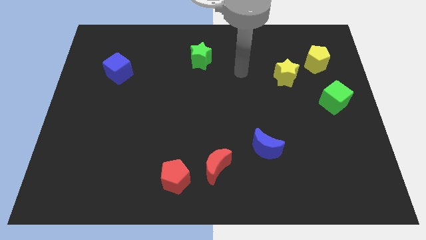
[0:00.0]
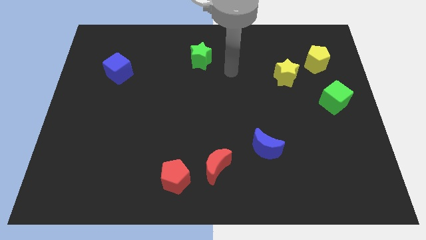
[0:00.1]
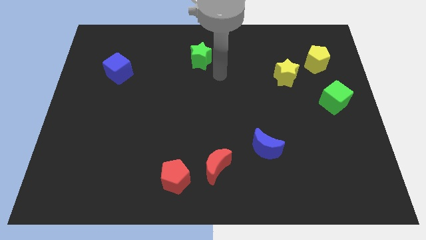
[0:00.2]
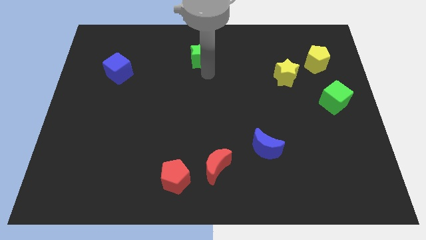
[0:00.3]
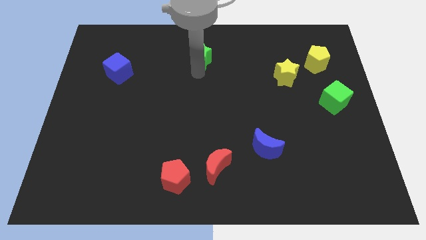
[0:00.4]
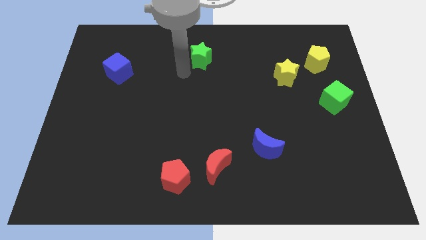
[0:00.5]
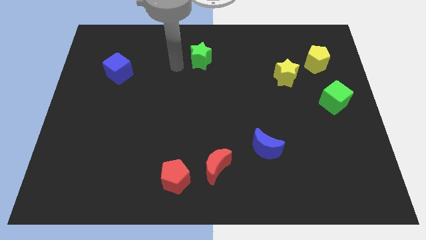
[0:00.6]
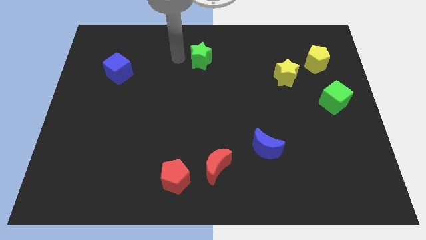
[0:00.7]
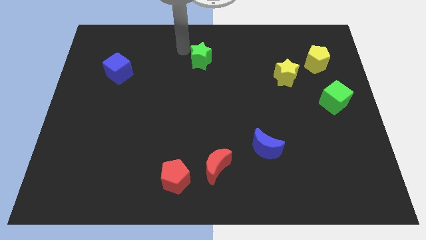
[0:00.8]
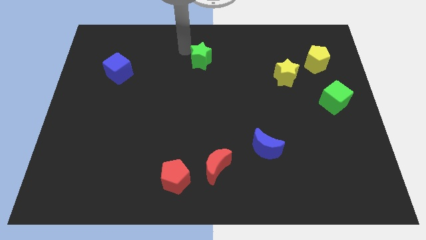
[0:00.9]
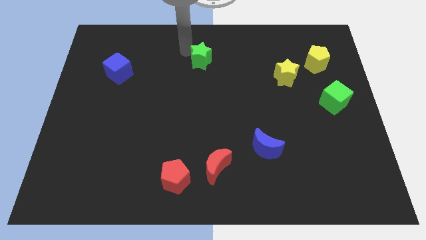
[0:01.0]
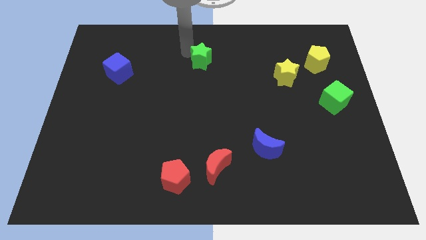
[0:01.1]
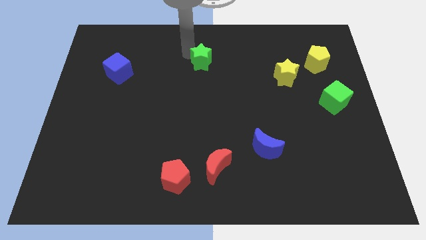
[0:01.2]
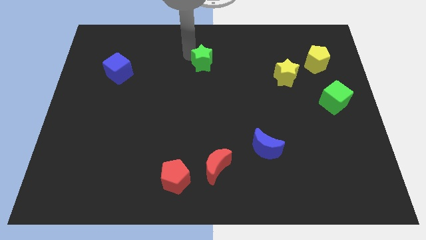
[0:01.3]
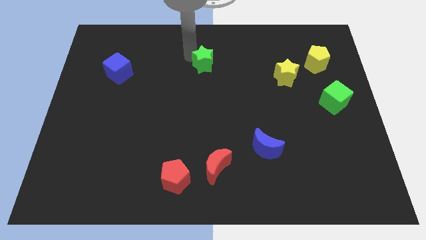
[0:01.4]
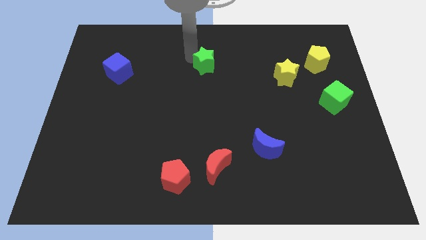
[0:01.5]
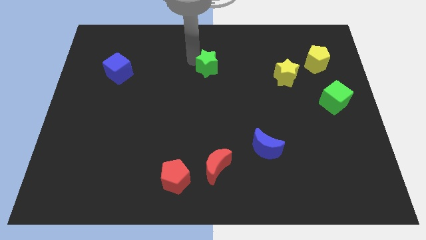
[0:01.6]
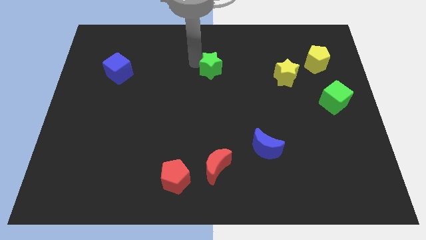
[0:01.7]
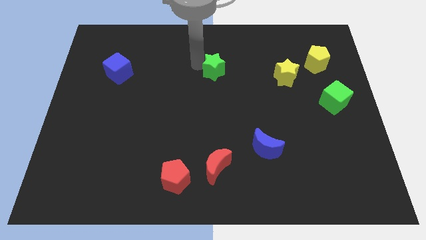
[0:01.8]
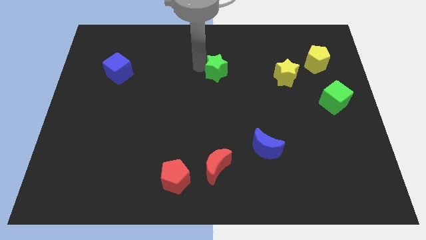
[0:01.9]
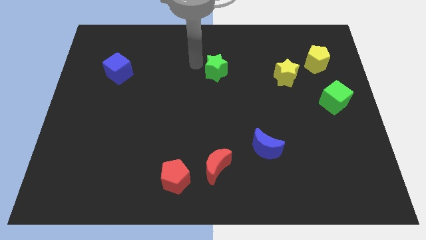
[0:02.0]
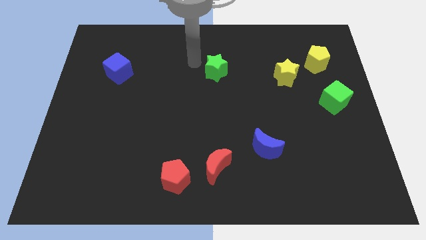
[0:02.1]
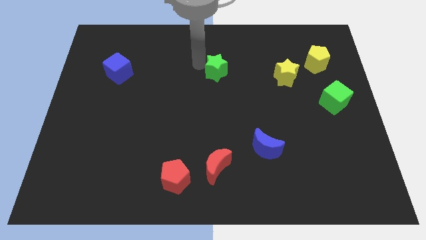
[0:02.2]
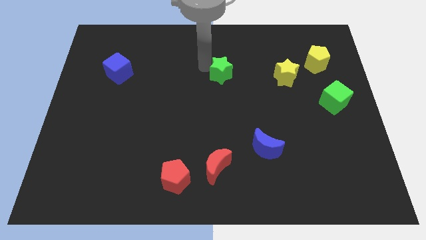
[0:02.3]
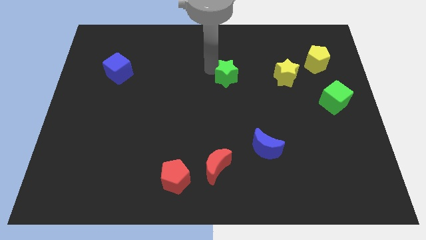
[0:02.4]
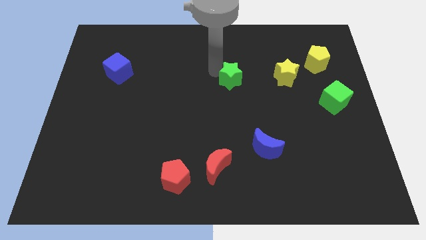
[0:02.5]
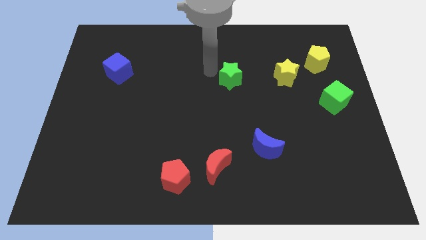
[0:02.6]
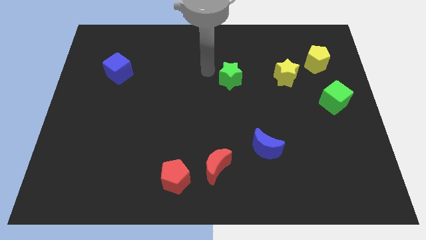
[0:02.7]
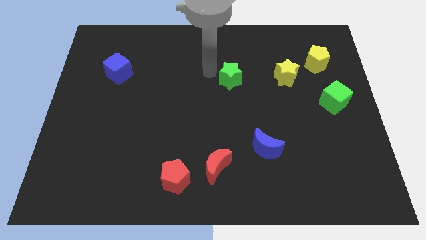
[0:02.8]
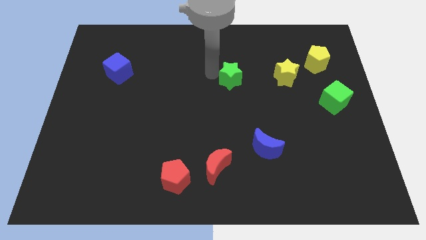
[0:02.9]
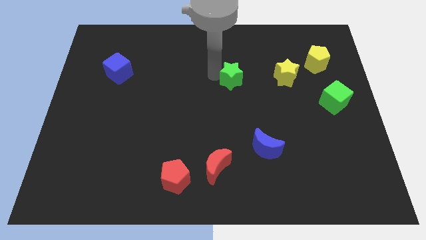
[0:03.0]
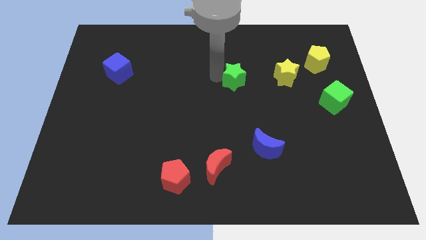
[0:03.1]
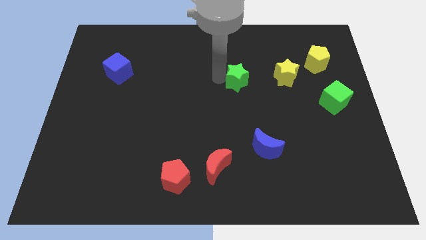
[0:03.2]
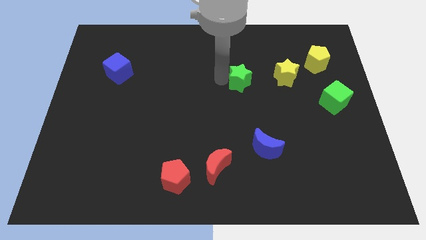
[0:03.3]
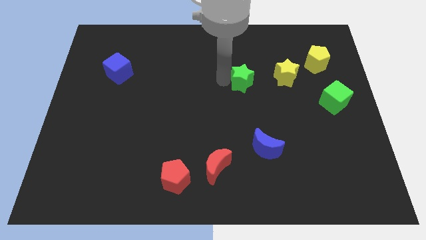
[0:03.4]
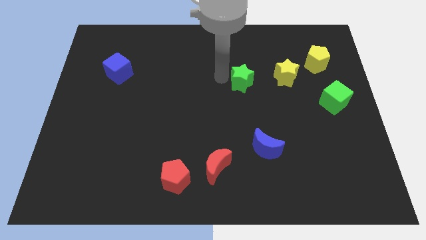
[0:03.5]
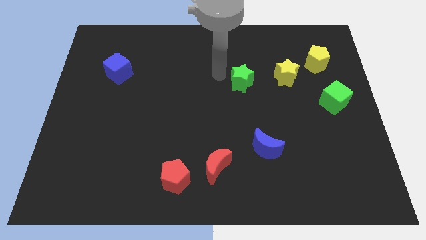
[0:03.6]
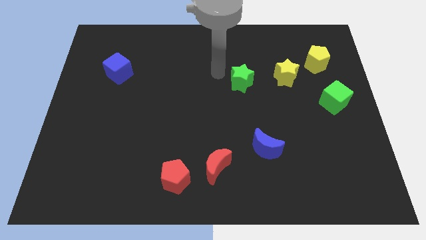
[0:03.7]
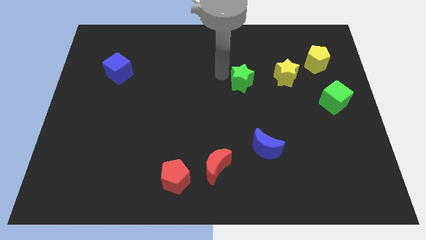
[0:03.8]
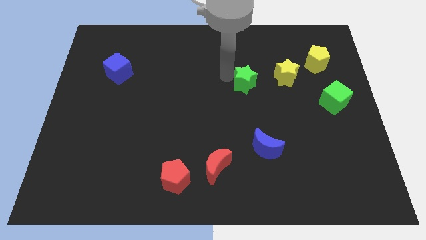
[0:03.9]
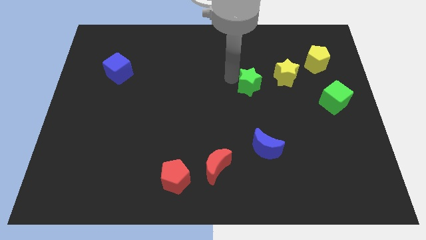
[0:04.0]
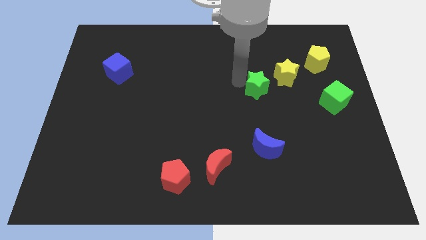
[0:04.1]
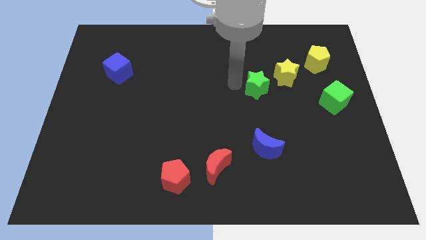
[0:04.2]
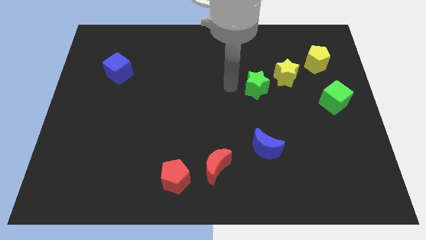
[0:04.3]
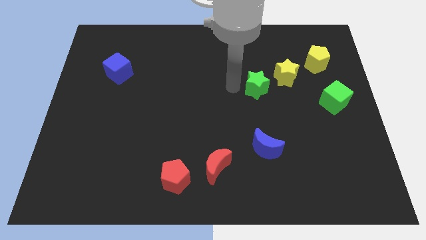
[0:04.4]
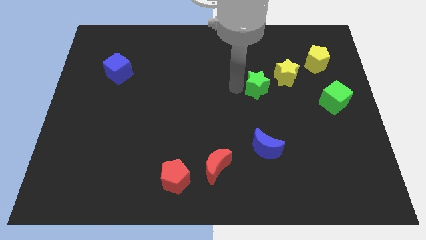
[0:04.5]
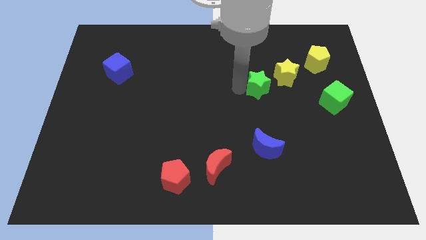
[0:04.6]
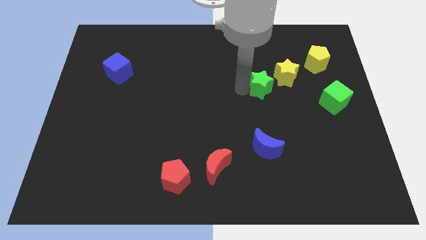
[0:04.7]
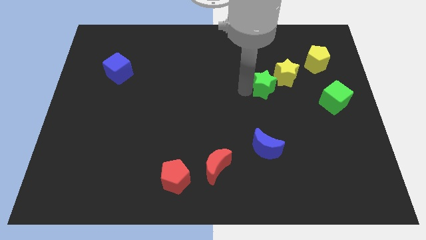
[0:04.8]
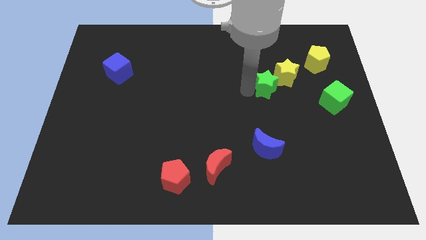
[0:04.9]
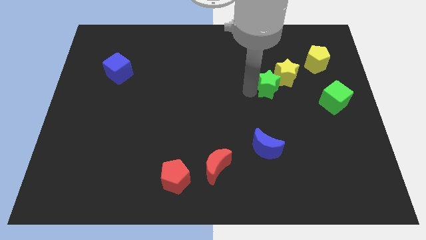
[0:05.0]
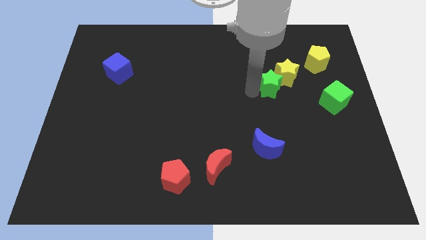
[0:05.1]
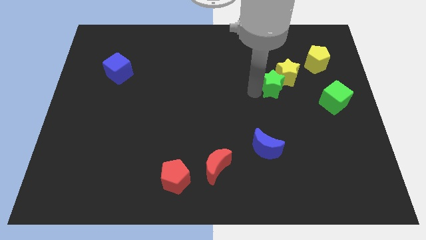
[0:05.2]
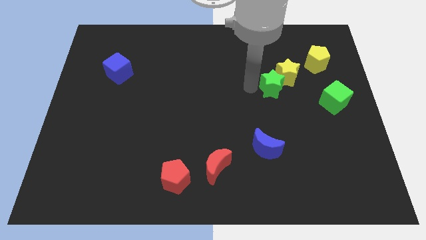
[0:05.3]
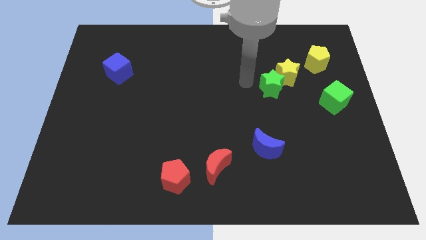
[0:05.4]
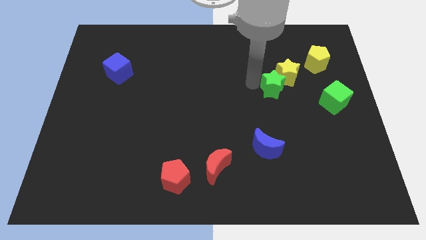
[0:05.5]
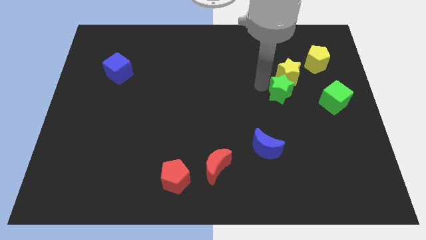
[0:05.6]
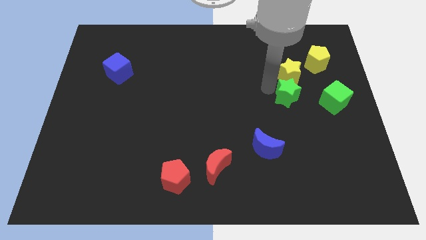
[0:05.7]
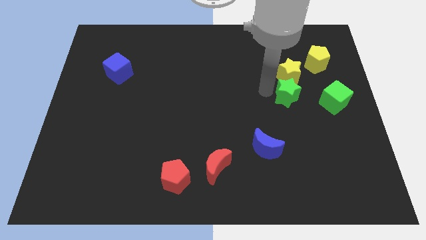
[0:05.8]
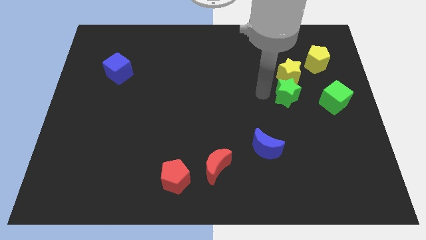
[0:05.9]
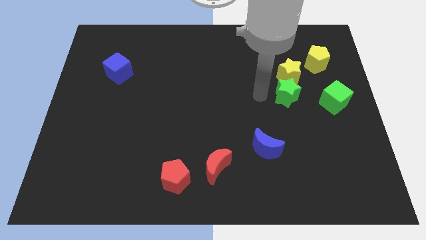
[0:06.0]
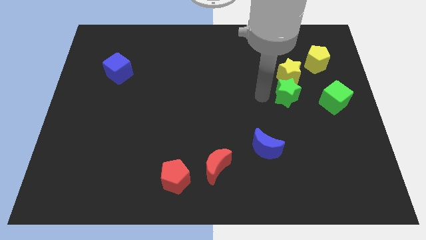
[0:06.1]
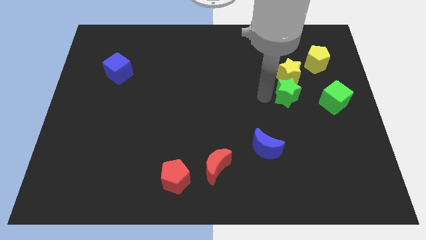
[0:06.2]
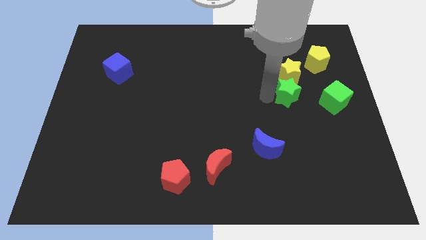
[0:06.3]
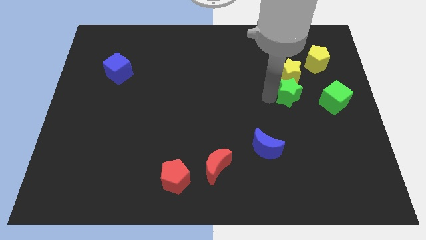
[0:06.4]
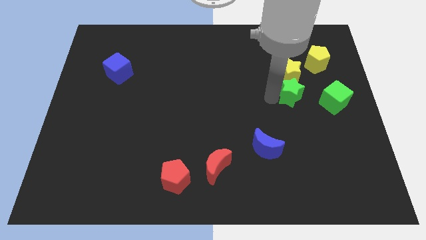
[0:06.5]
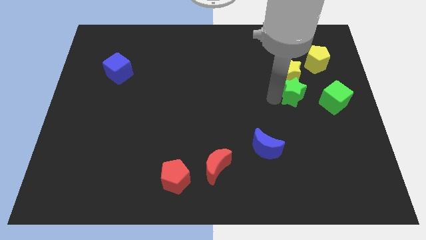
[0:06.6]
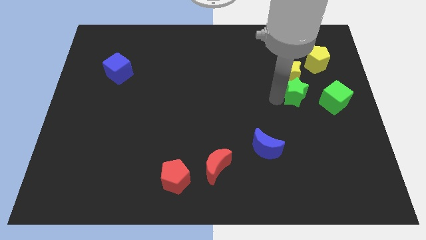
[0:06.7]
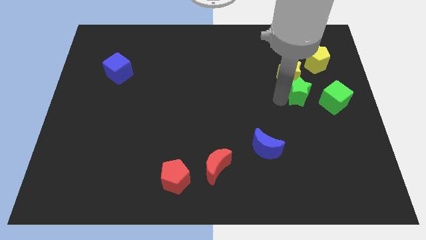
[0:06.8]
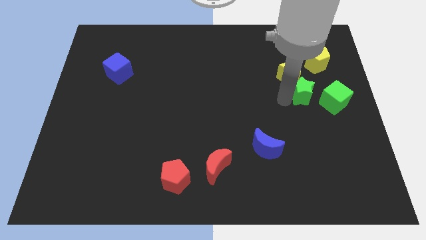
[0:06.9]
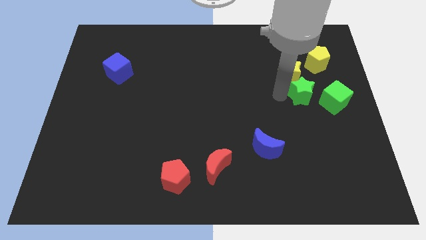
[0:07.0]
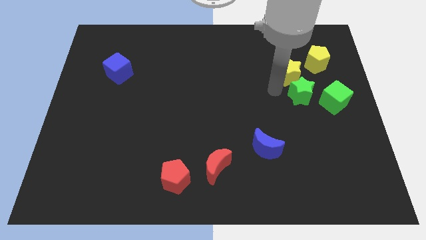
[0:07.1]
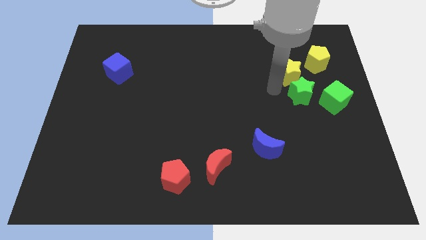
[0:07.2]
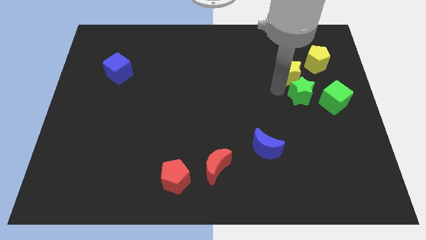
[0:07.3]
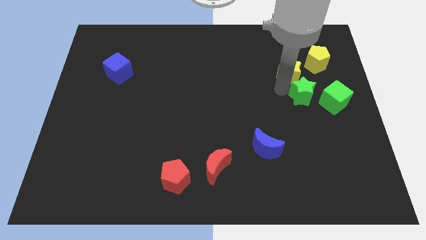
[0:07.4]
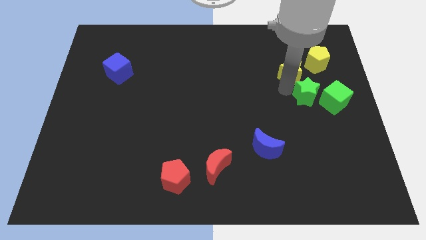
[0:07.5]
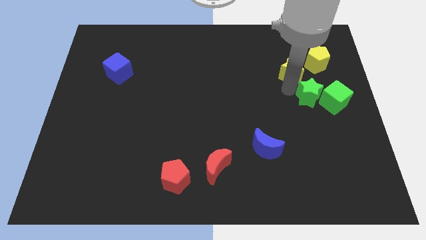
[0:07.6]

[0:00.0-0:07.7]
slide the green star towards the green cube

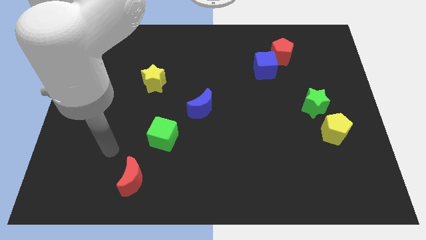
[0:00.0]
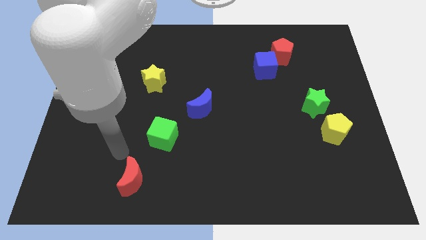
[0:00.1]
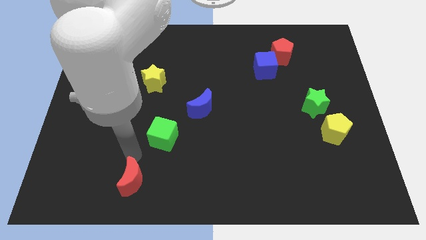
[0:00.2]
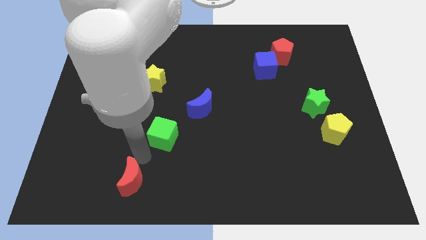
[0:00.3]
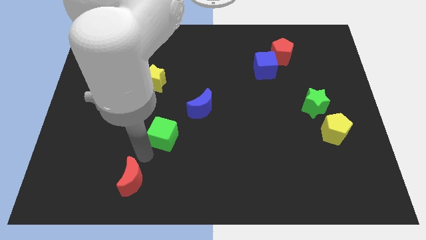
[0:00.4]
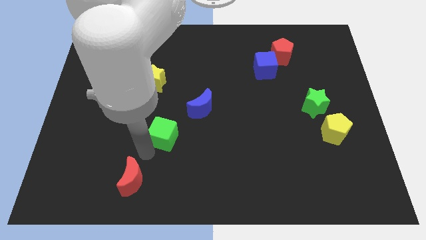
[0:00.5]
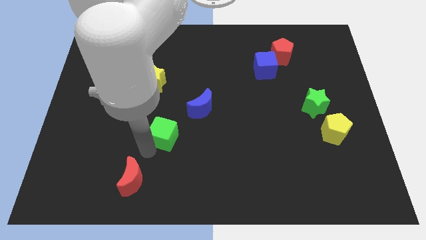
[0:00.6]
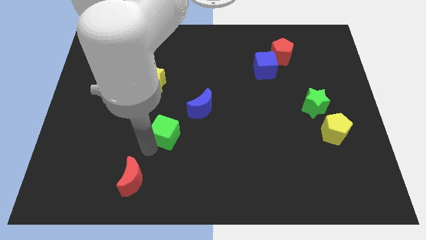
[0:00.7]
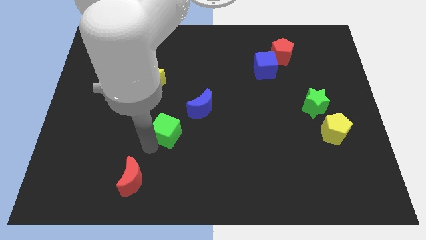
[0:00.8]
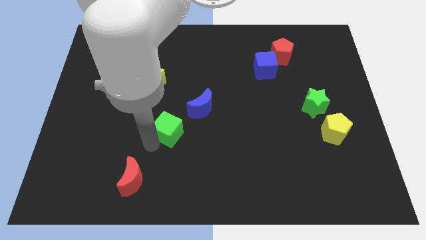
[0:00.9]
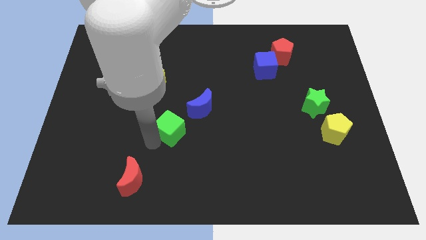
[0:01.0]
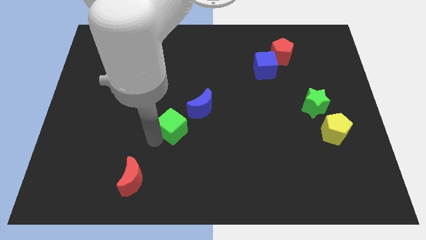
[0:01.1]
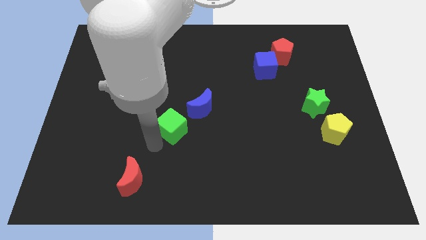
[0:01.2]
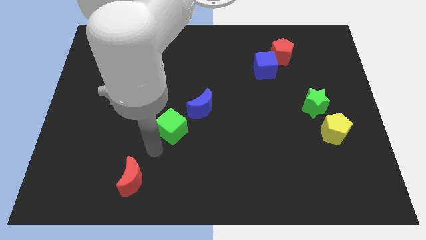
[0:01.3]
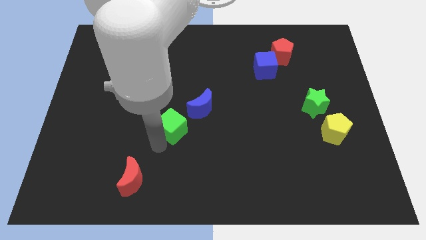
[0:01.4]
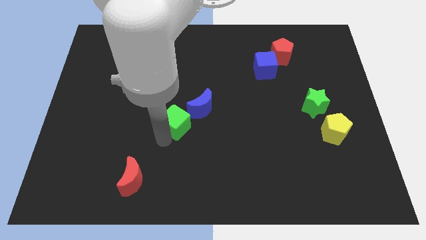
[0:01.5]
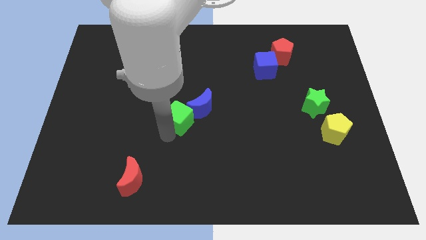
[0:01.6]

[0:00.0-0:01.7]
slide the green cube next to the blue moon
